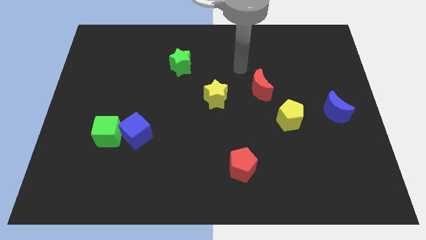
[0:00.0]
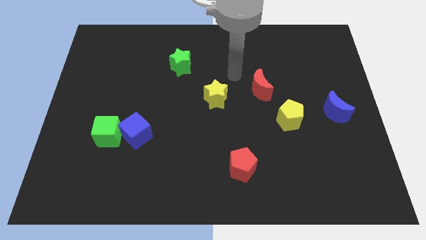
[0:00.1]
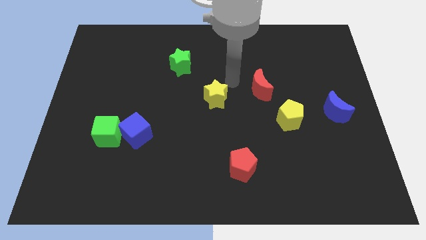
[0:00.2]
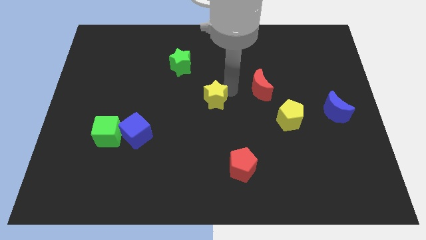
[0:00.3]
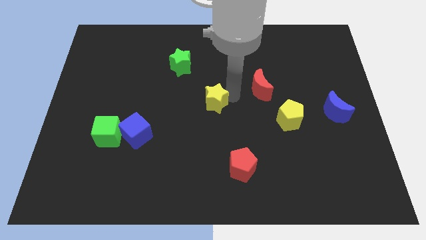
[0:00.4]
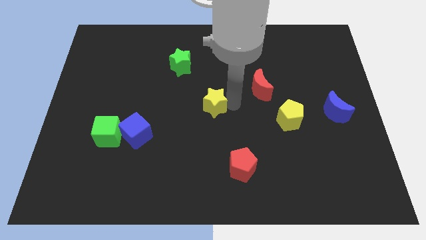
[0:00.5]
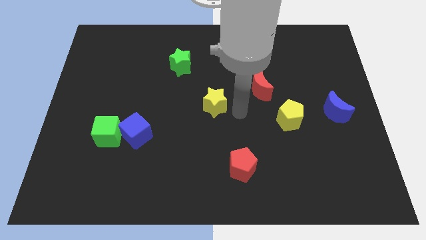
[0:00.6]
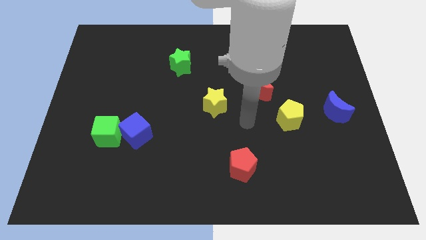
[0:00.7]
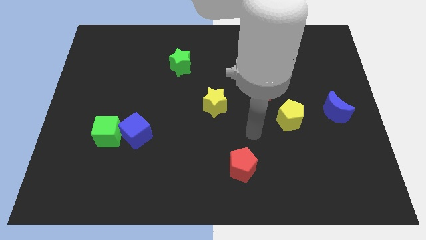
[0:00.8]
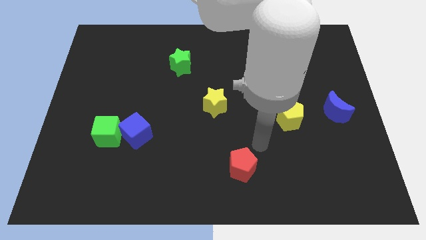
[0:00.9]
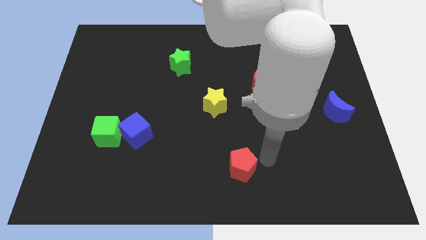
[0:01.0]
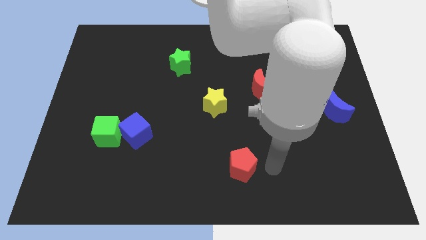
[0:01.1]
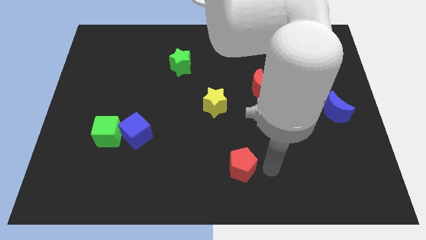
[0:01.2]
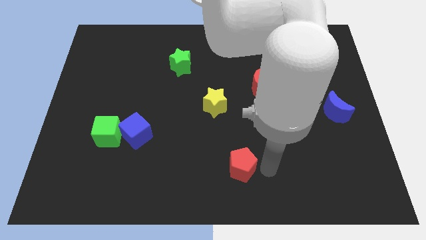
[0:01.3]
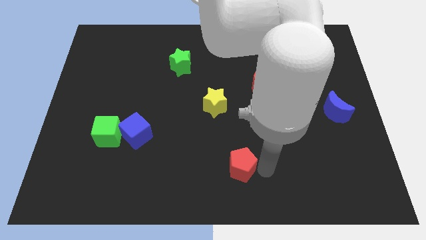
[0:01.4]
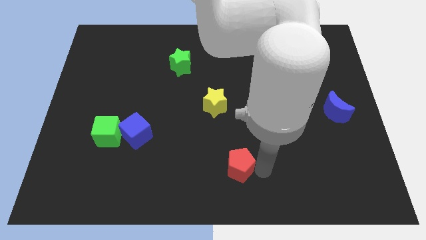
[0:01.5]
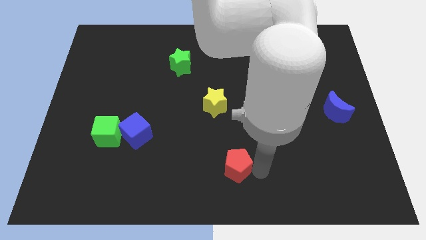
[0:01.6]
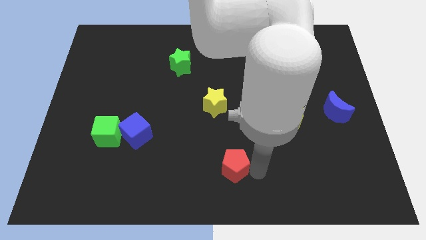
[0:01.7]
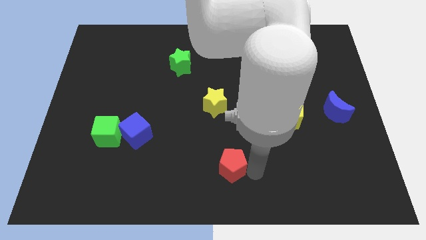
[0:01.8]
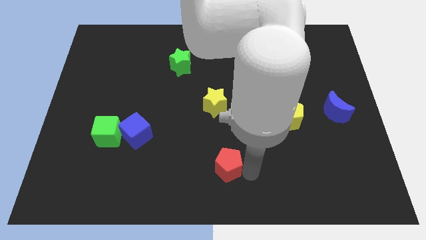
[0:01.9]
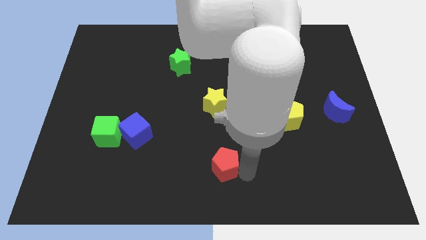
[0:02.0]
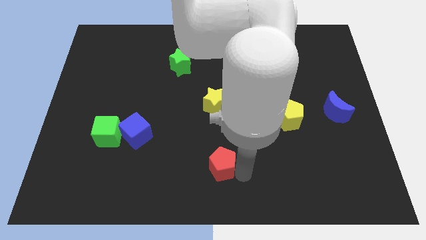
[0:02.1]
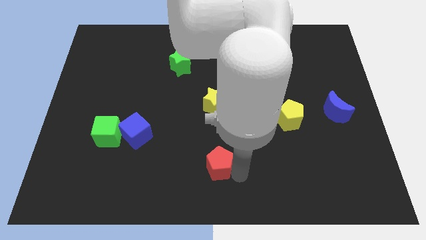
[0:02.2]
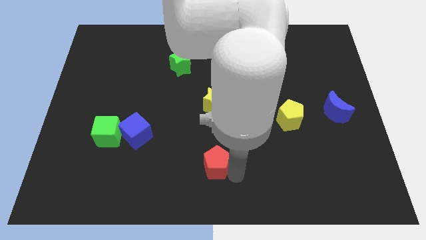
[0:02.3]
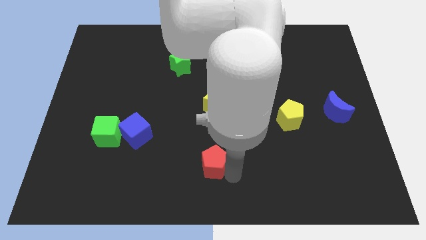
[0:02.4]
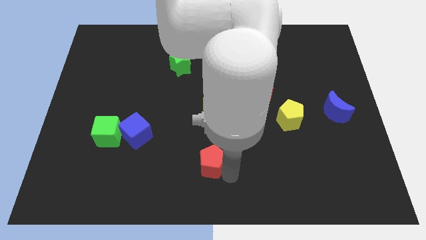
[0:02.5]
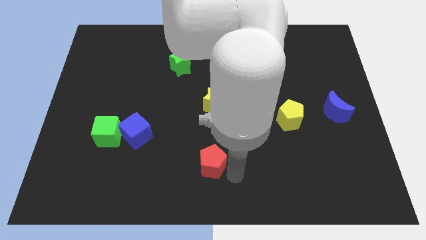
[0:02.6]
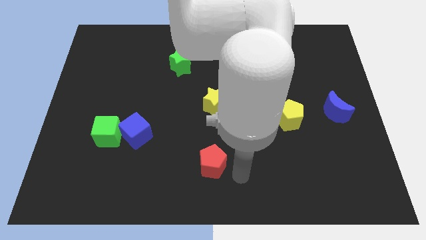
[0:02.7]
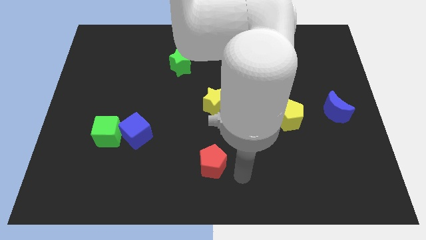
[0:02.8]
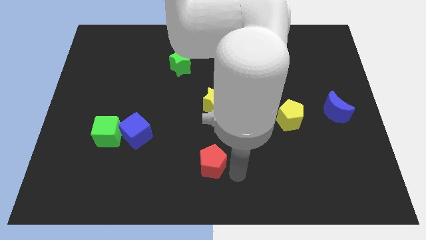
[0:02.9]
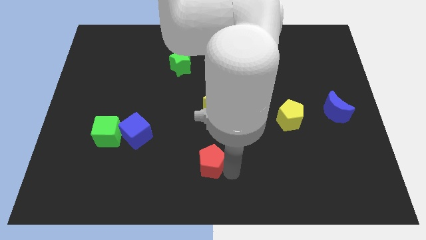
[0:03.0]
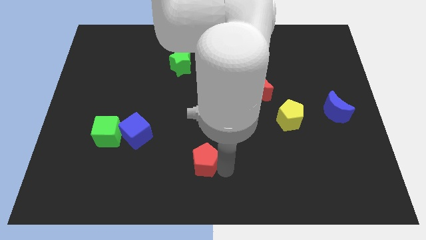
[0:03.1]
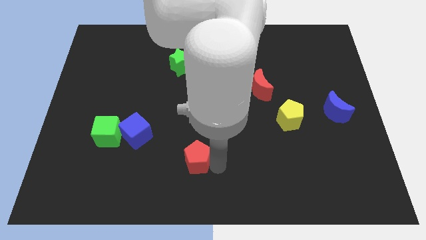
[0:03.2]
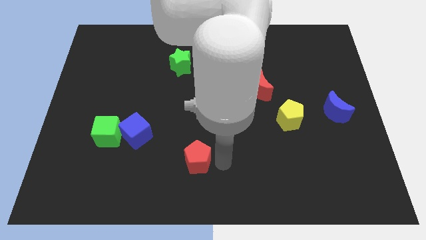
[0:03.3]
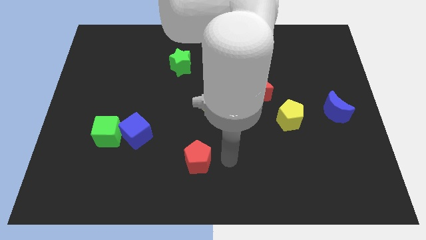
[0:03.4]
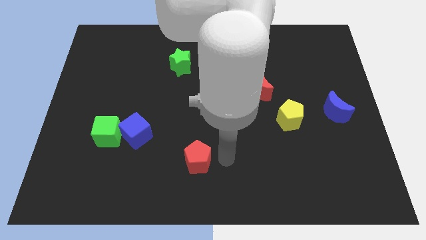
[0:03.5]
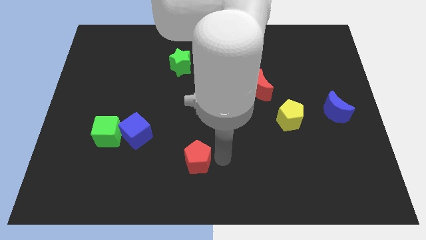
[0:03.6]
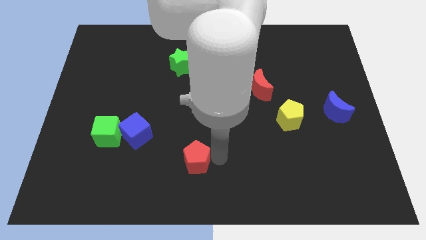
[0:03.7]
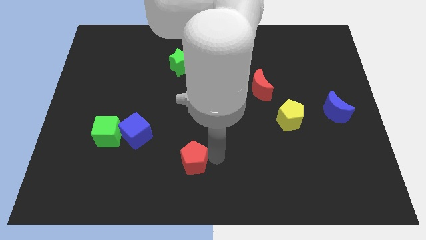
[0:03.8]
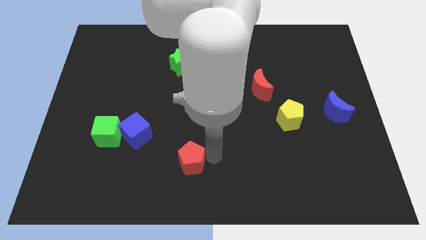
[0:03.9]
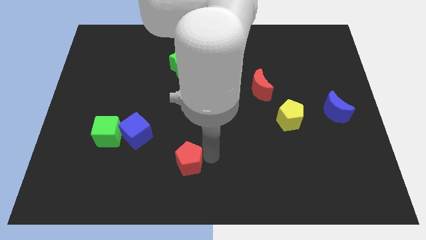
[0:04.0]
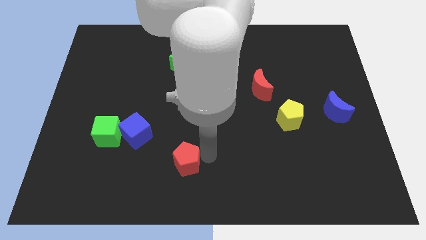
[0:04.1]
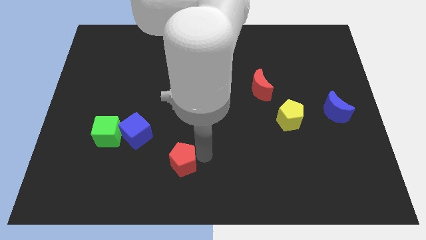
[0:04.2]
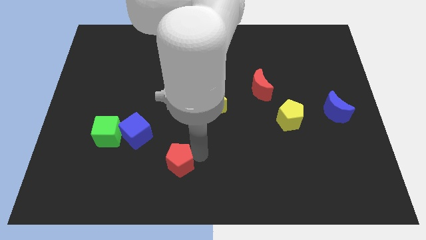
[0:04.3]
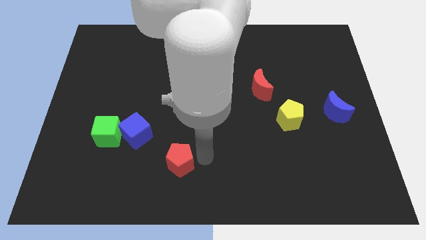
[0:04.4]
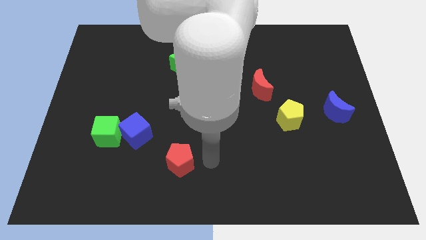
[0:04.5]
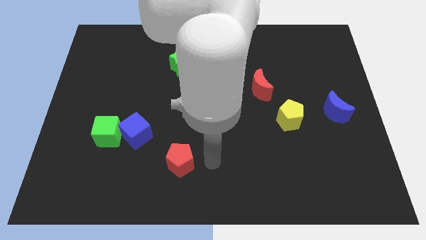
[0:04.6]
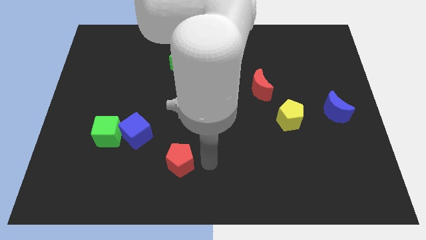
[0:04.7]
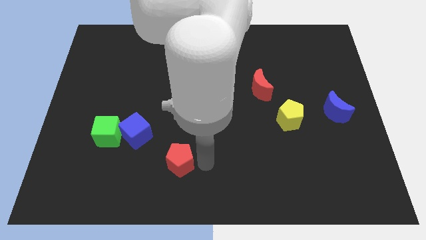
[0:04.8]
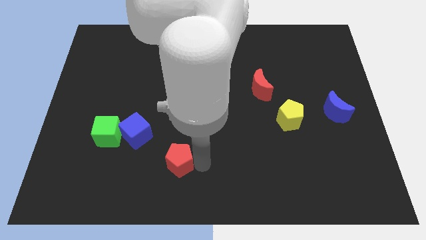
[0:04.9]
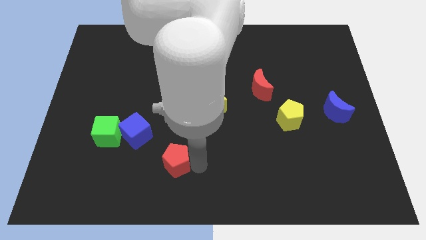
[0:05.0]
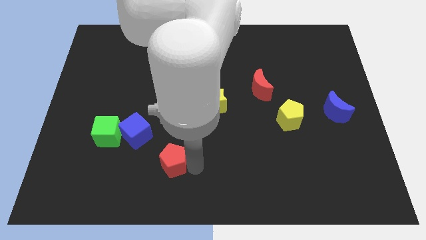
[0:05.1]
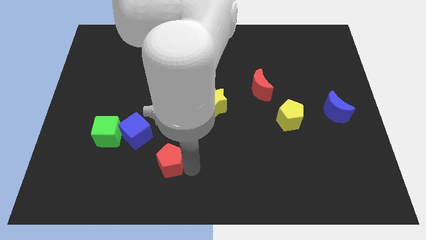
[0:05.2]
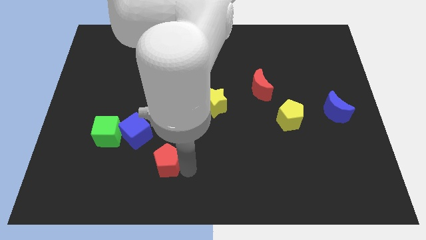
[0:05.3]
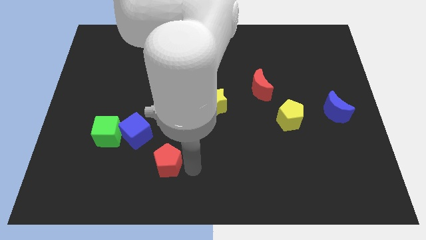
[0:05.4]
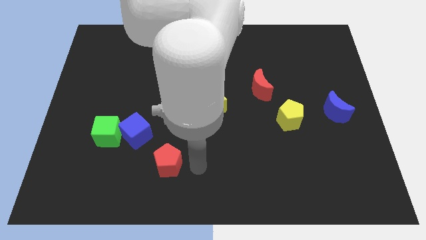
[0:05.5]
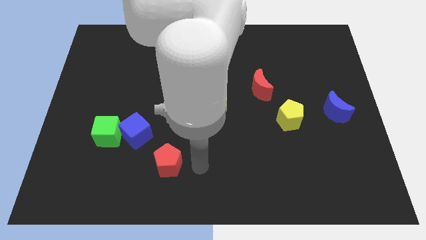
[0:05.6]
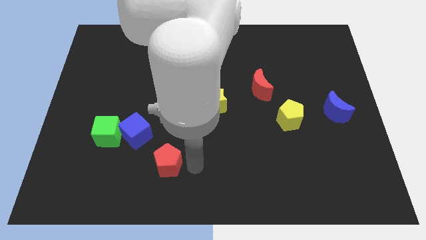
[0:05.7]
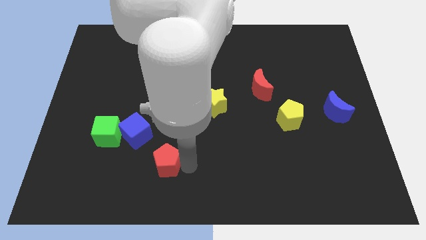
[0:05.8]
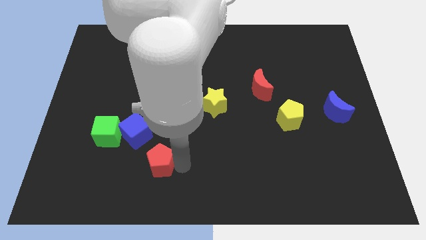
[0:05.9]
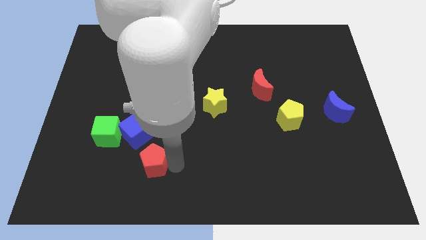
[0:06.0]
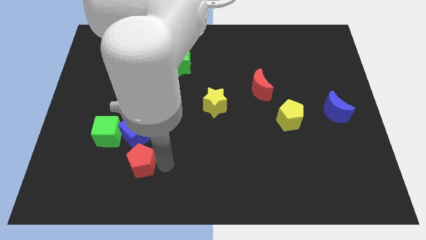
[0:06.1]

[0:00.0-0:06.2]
slide the red pentagon to the left

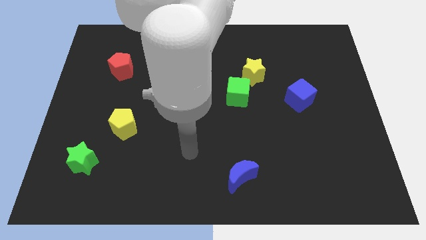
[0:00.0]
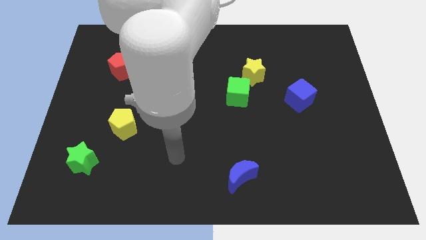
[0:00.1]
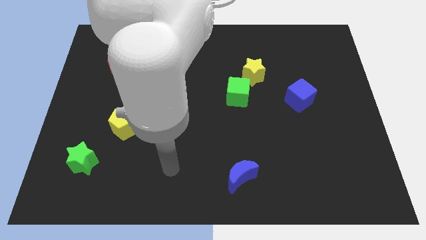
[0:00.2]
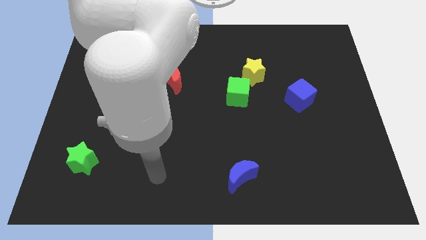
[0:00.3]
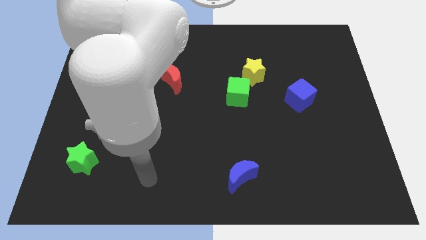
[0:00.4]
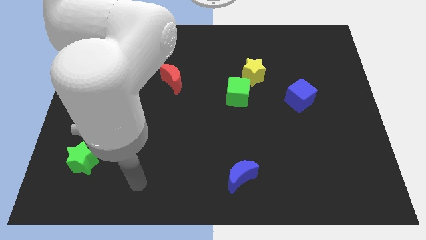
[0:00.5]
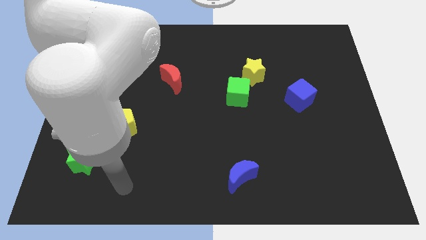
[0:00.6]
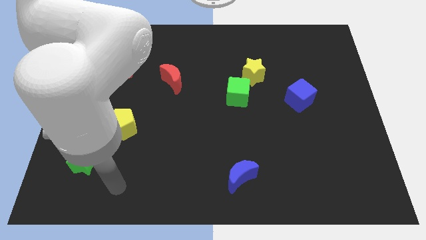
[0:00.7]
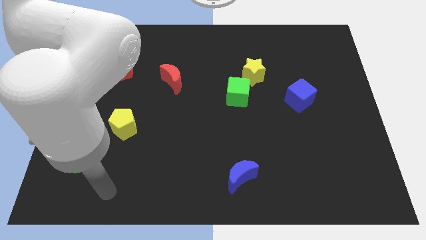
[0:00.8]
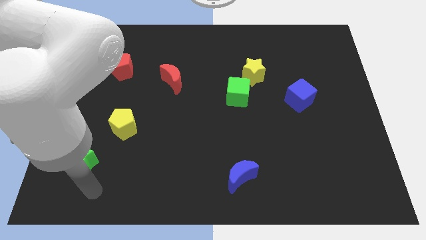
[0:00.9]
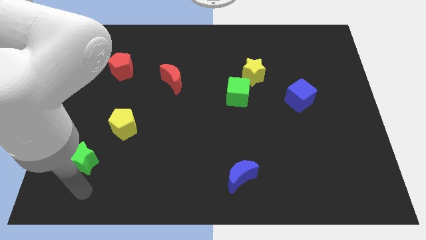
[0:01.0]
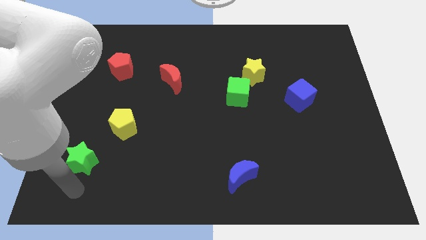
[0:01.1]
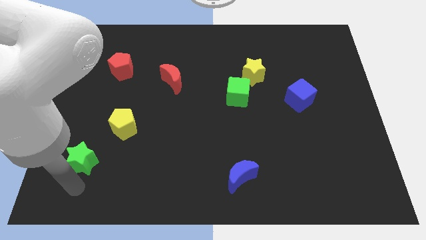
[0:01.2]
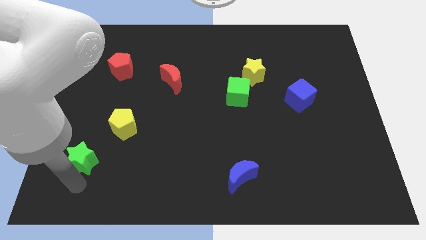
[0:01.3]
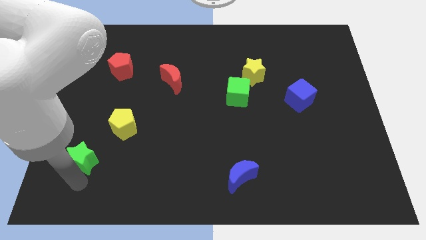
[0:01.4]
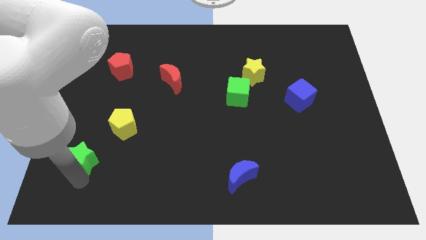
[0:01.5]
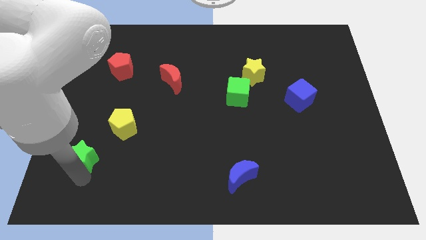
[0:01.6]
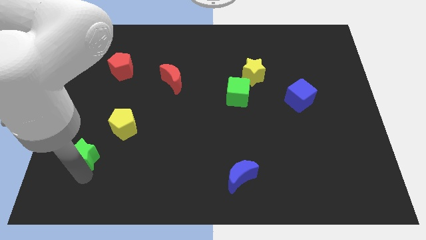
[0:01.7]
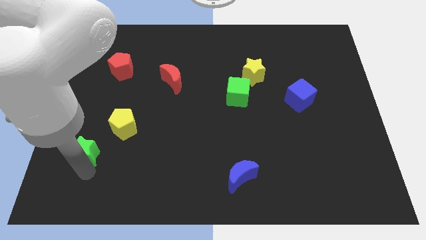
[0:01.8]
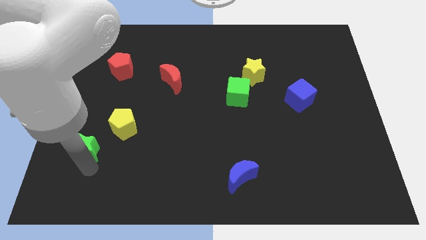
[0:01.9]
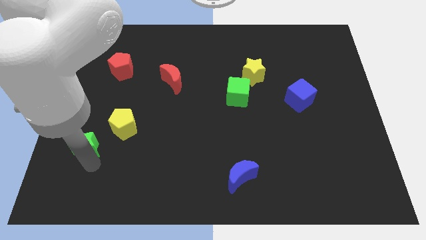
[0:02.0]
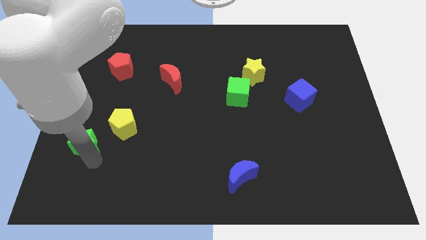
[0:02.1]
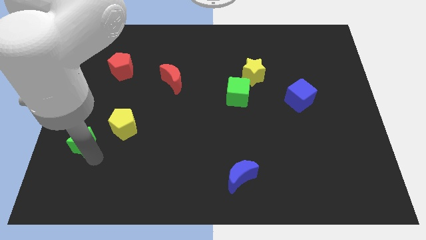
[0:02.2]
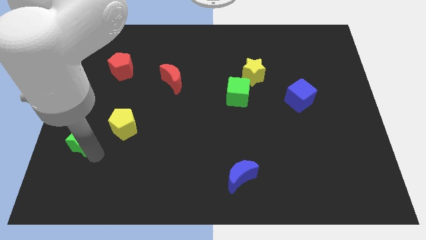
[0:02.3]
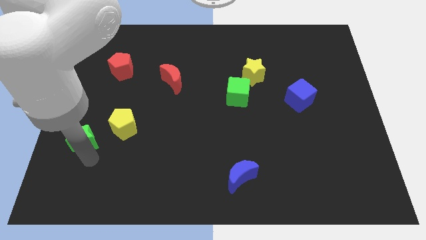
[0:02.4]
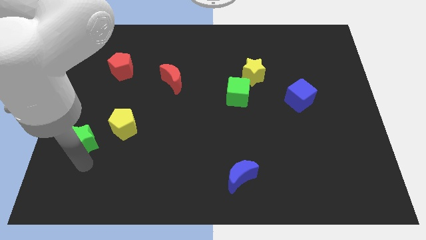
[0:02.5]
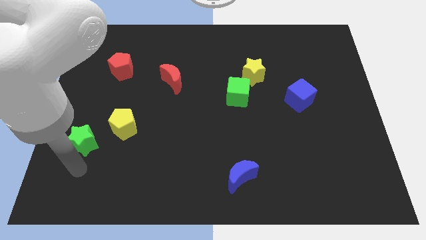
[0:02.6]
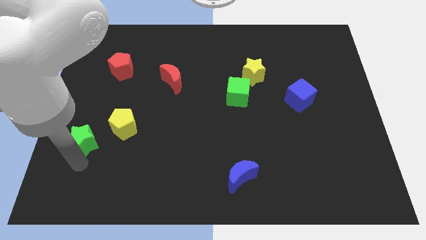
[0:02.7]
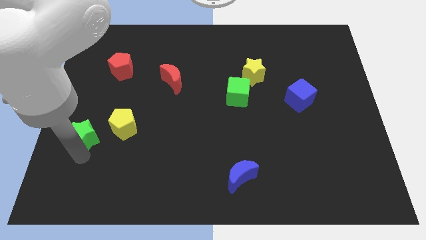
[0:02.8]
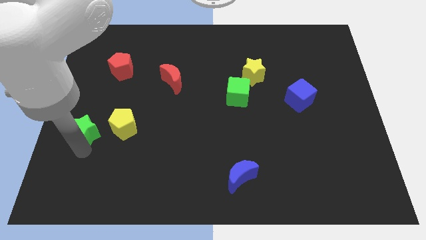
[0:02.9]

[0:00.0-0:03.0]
move the green star slightly upwards
